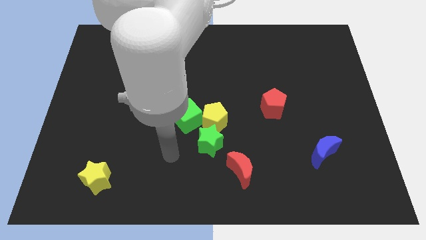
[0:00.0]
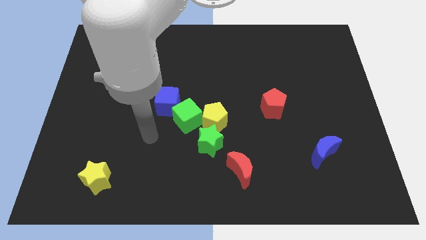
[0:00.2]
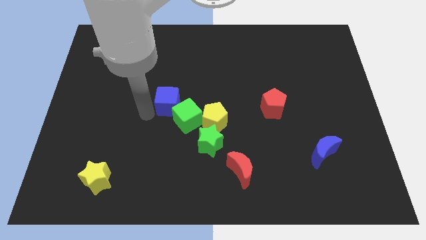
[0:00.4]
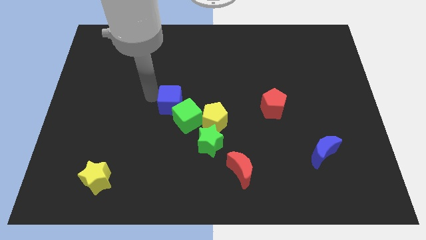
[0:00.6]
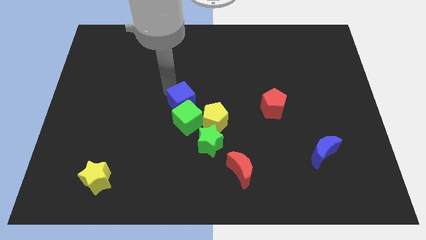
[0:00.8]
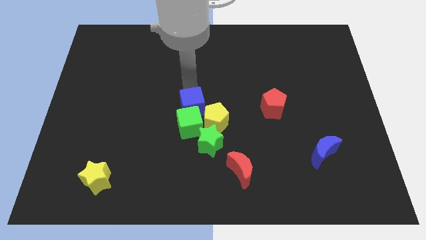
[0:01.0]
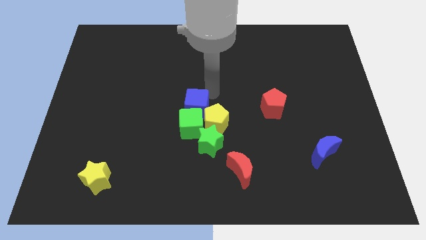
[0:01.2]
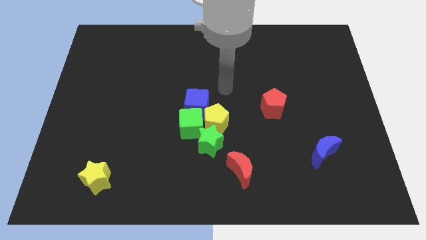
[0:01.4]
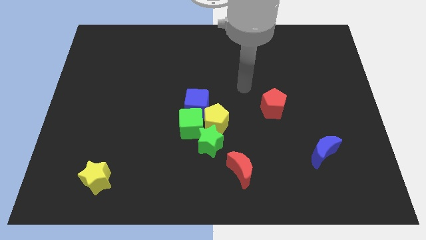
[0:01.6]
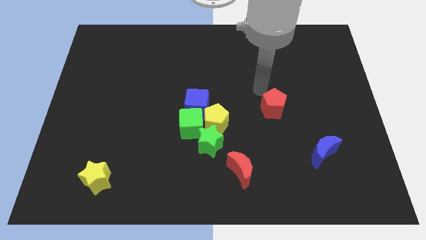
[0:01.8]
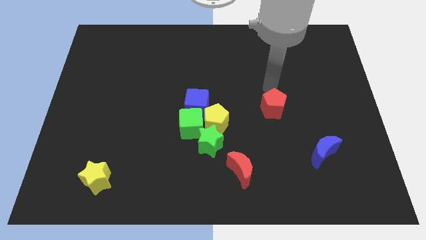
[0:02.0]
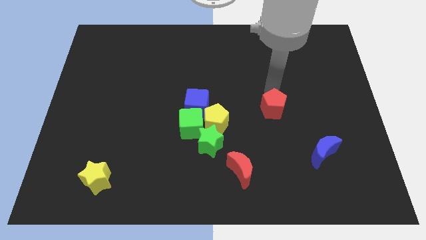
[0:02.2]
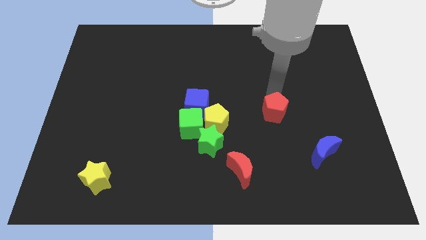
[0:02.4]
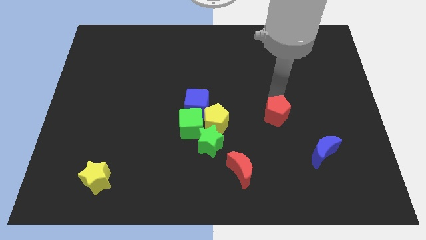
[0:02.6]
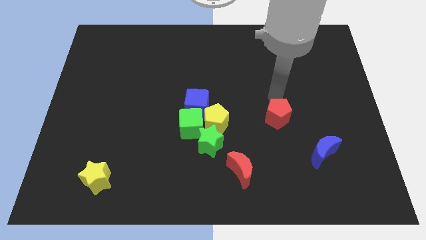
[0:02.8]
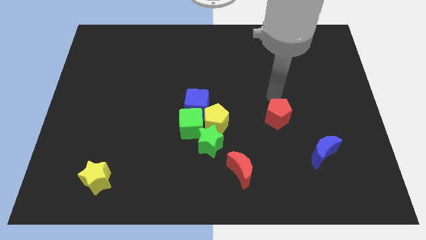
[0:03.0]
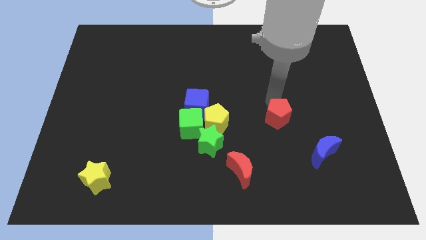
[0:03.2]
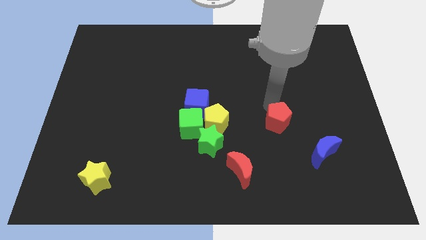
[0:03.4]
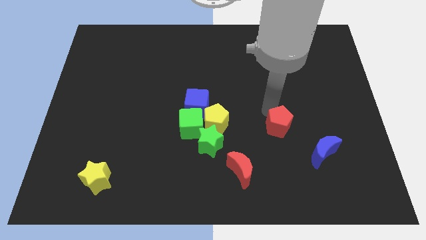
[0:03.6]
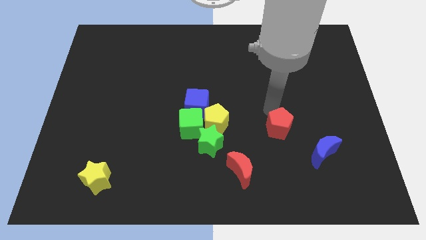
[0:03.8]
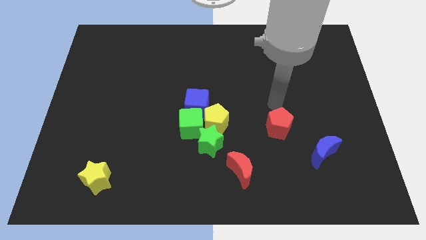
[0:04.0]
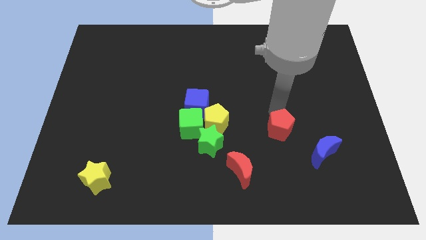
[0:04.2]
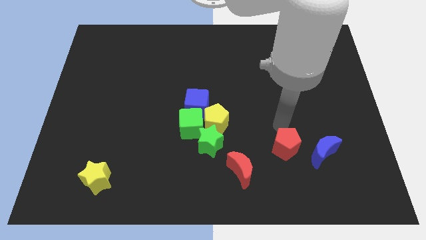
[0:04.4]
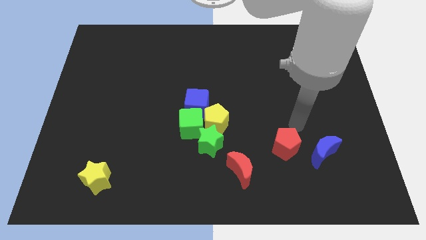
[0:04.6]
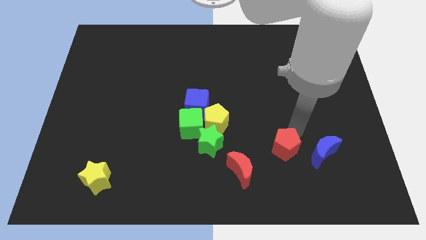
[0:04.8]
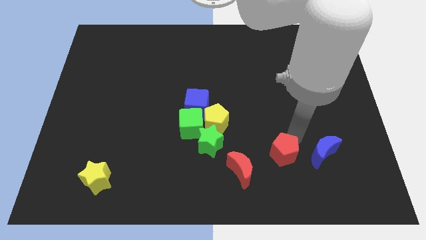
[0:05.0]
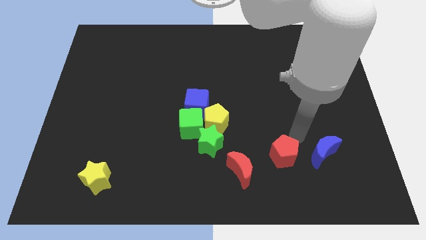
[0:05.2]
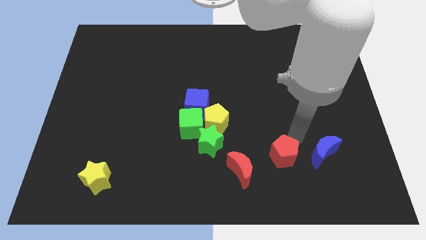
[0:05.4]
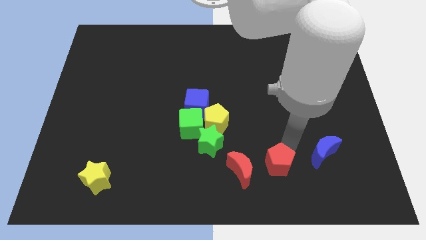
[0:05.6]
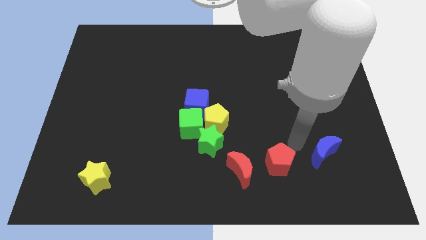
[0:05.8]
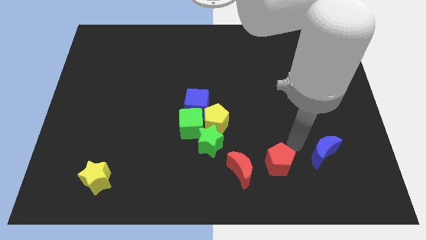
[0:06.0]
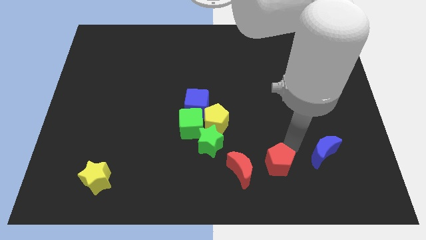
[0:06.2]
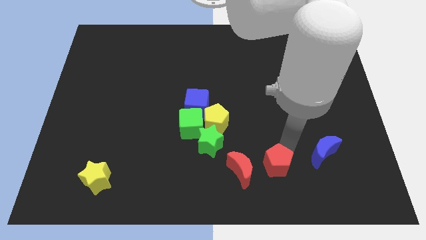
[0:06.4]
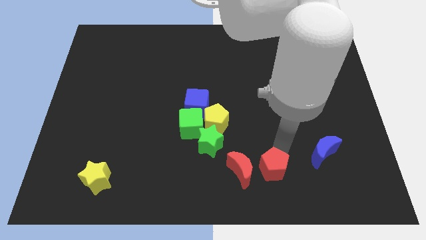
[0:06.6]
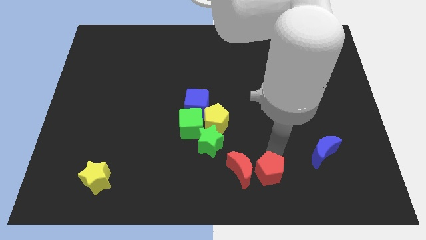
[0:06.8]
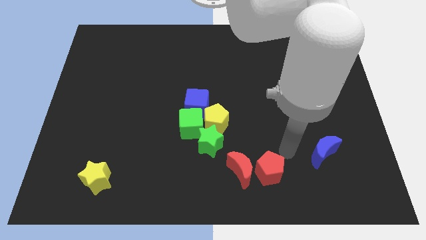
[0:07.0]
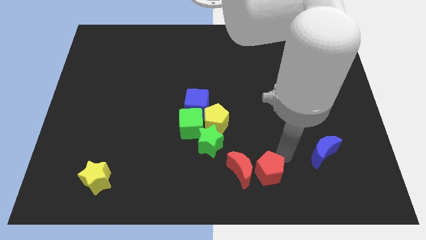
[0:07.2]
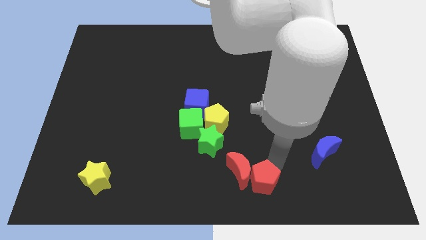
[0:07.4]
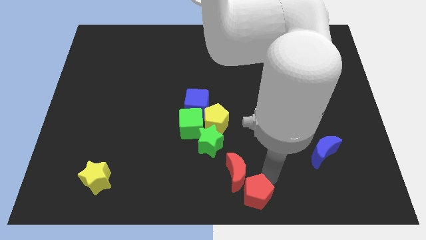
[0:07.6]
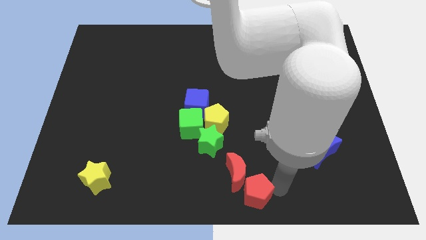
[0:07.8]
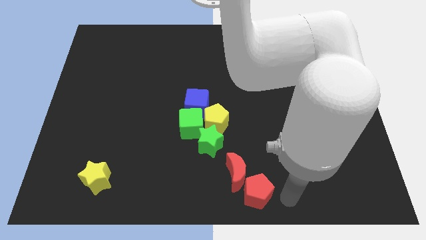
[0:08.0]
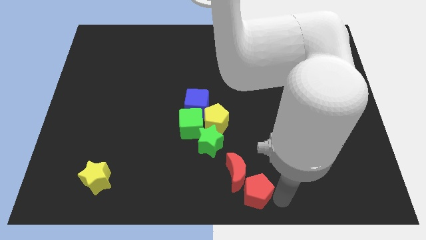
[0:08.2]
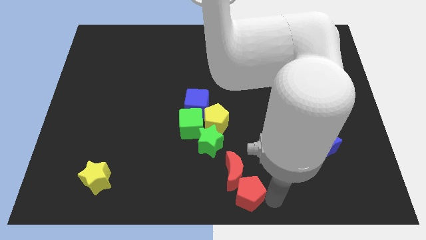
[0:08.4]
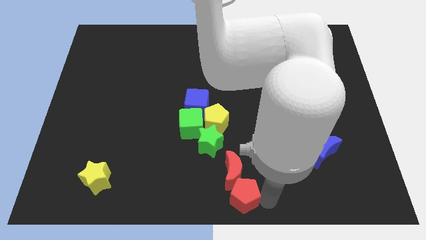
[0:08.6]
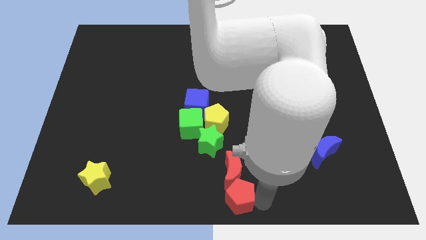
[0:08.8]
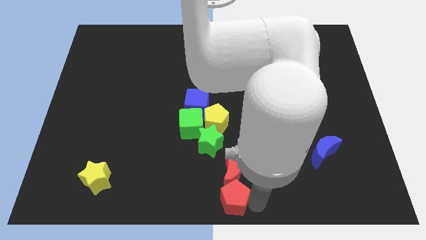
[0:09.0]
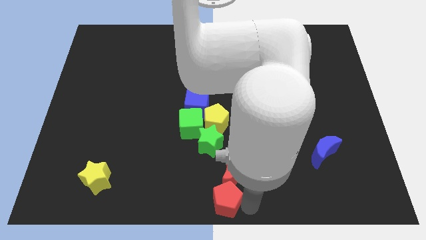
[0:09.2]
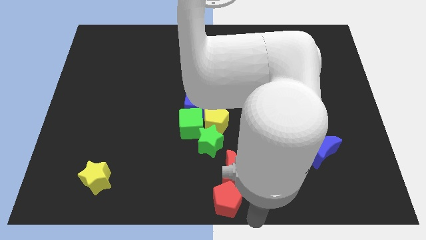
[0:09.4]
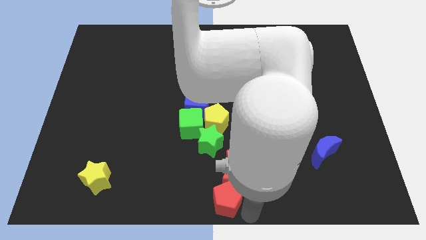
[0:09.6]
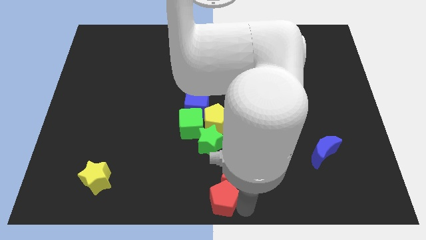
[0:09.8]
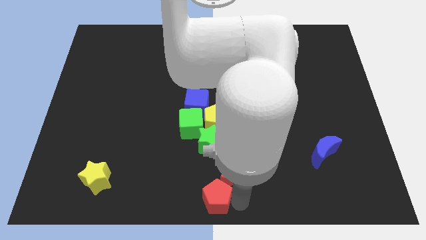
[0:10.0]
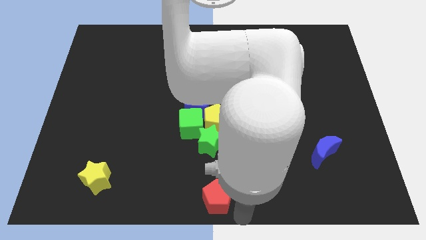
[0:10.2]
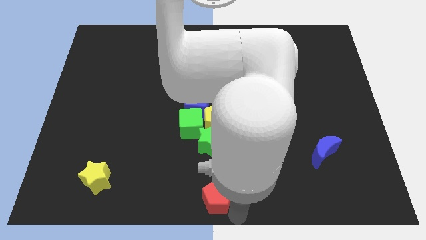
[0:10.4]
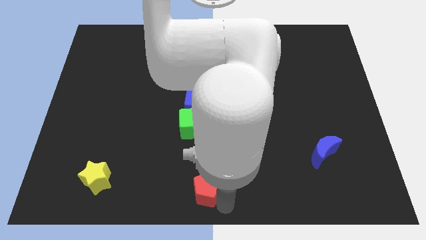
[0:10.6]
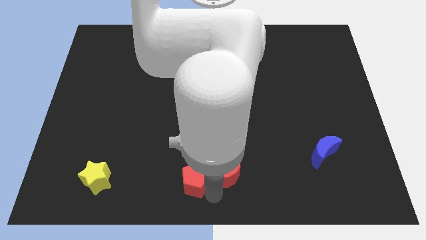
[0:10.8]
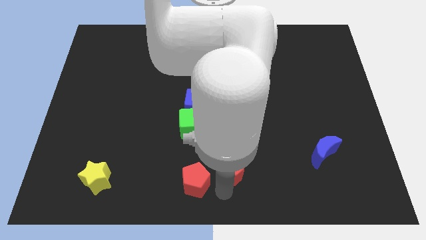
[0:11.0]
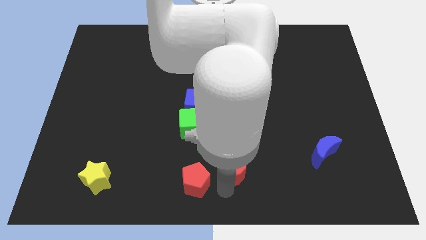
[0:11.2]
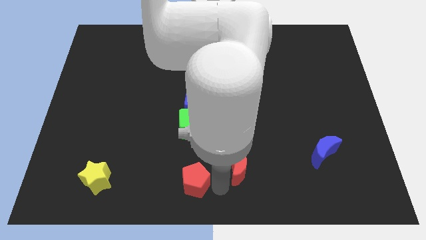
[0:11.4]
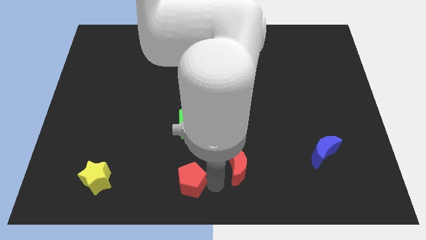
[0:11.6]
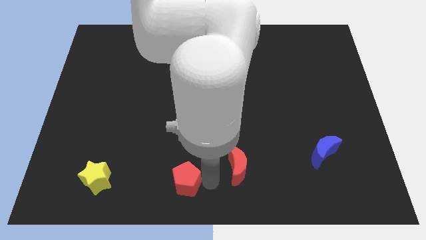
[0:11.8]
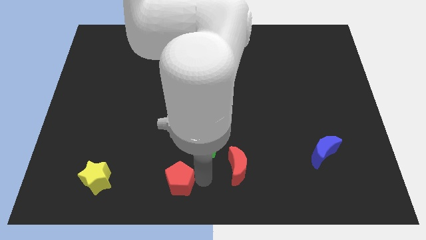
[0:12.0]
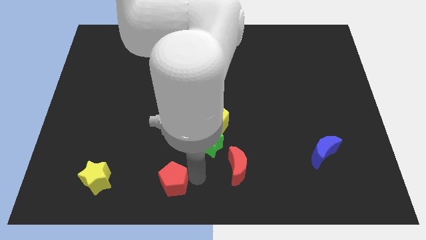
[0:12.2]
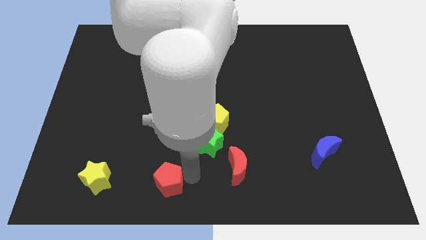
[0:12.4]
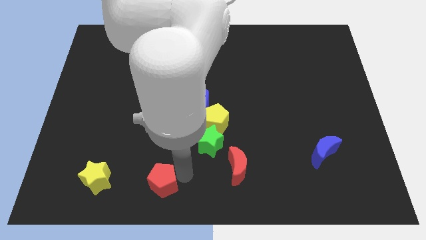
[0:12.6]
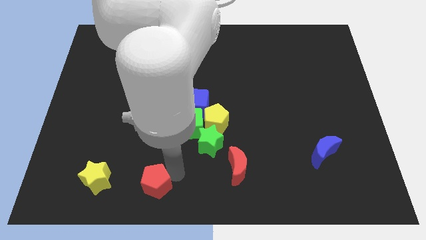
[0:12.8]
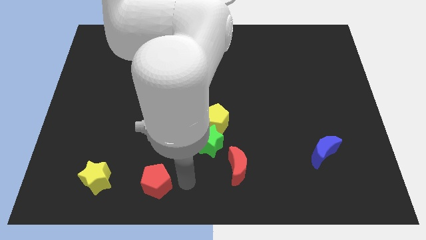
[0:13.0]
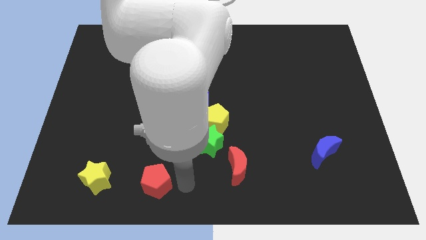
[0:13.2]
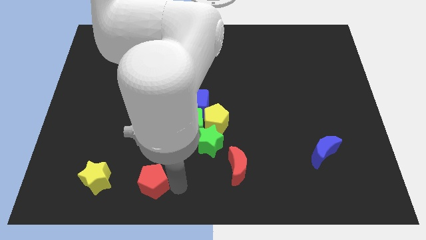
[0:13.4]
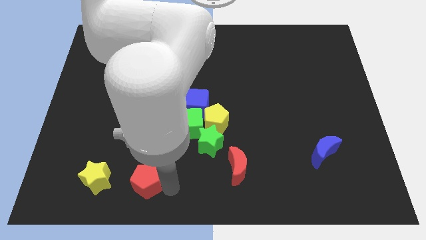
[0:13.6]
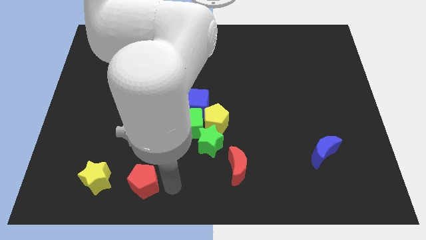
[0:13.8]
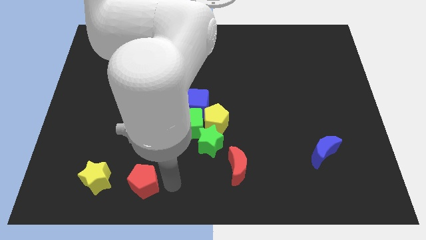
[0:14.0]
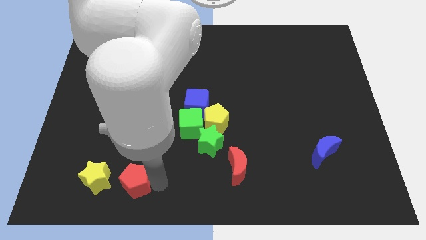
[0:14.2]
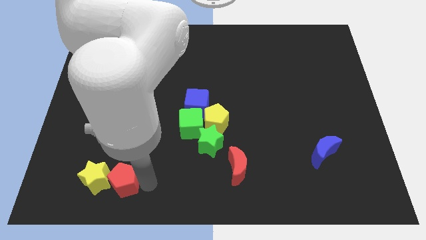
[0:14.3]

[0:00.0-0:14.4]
slide the red pentagon close to the yellow star
